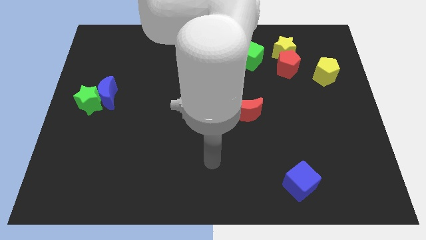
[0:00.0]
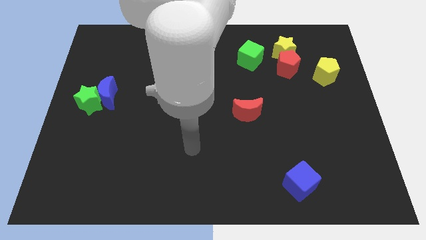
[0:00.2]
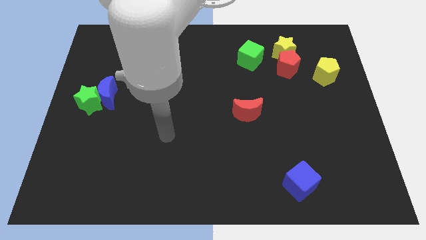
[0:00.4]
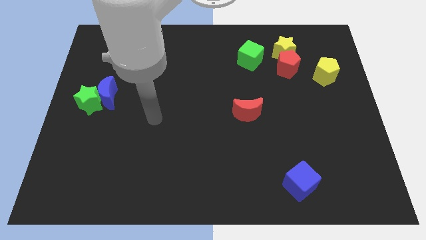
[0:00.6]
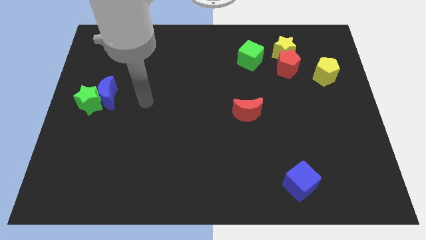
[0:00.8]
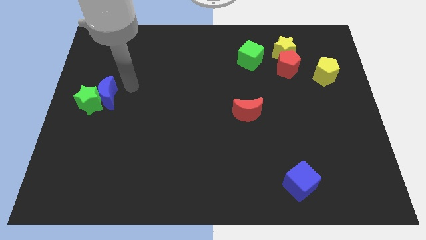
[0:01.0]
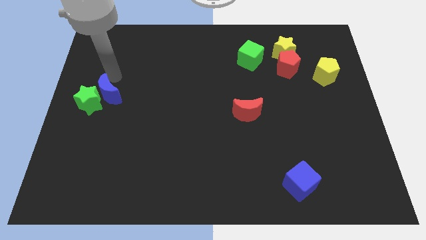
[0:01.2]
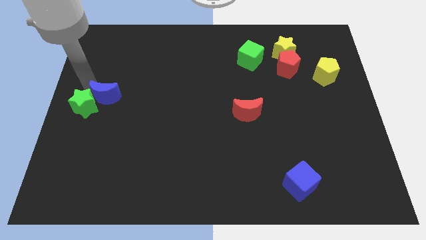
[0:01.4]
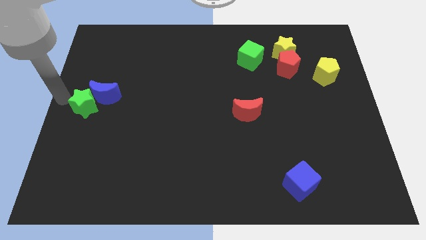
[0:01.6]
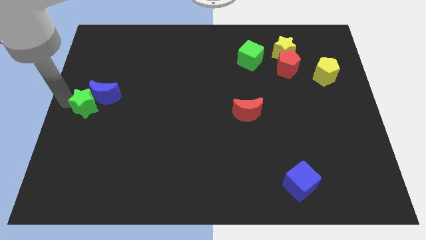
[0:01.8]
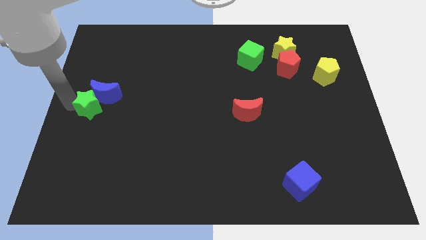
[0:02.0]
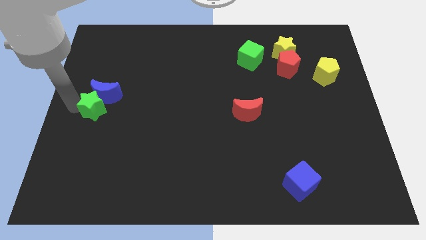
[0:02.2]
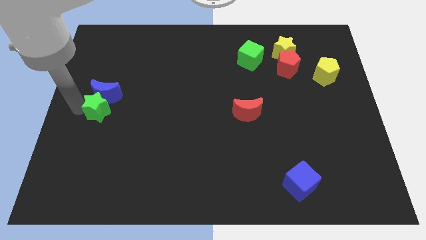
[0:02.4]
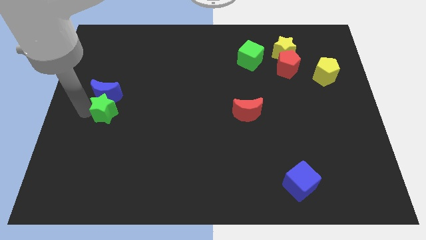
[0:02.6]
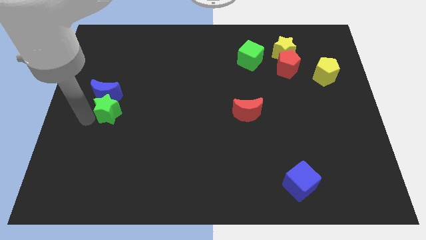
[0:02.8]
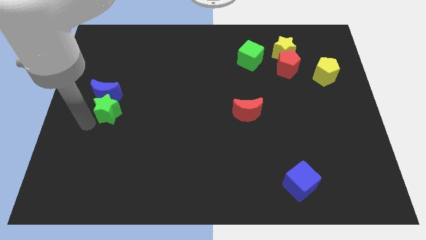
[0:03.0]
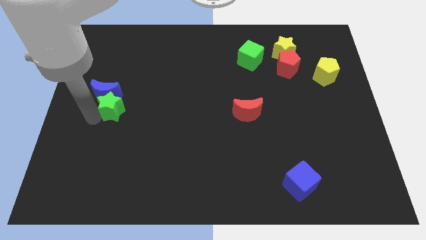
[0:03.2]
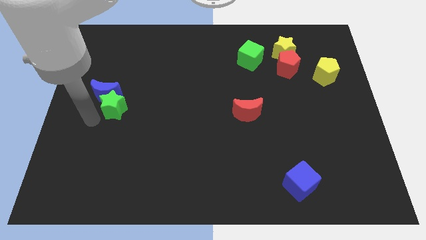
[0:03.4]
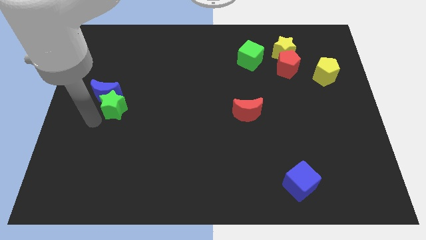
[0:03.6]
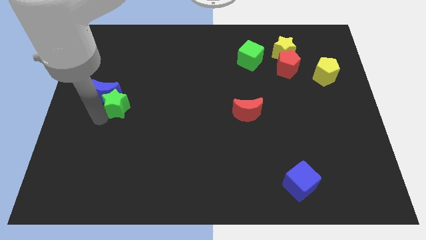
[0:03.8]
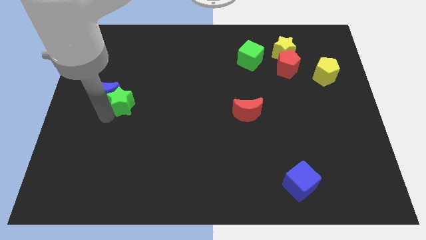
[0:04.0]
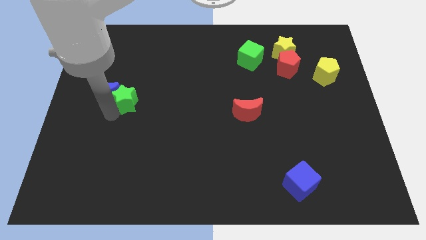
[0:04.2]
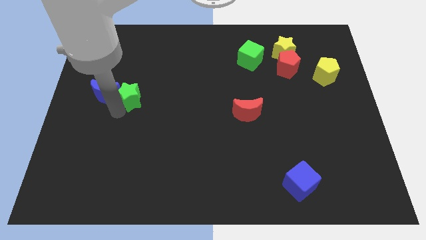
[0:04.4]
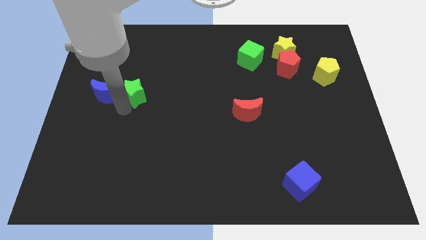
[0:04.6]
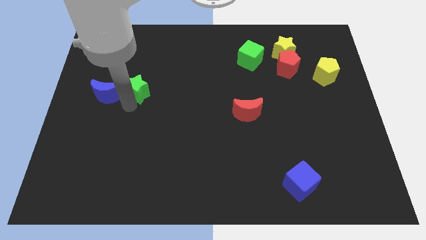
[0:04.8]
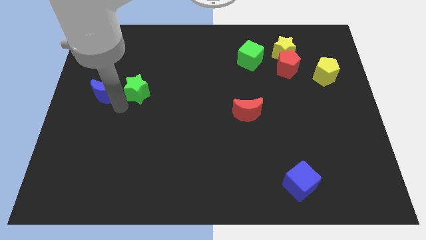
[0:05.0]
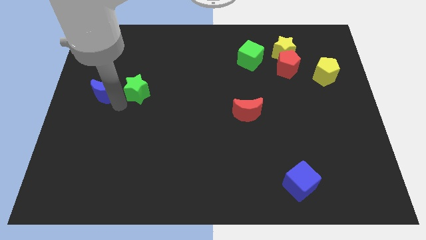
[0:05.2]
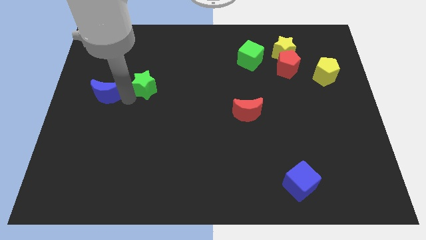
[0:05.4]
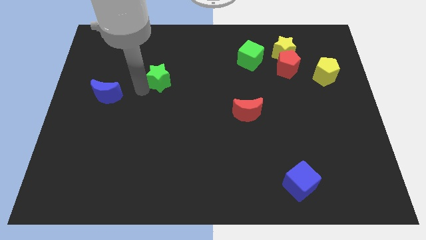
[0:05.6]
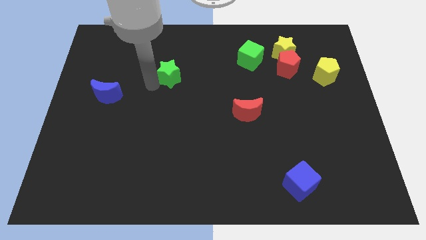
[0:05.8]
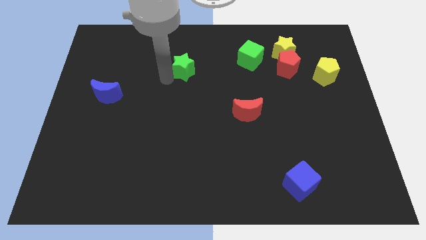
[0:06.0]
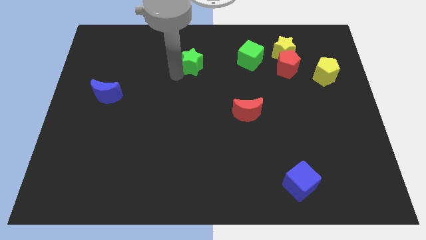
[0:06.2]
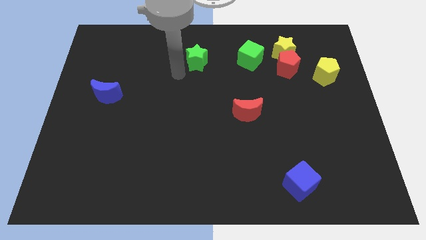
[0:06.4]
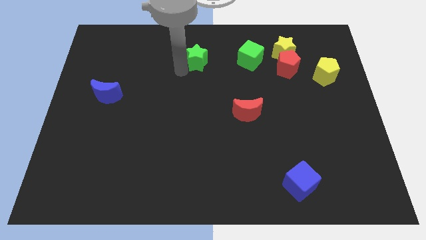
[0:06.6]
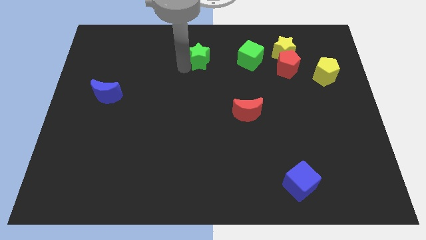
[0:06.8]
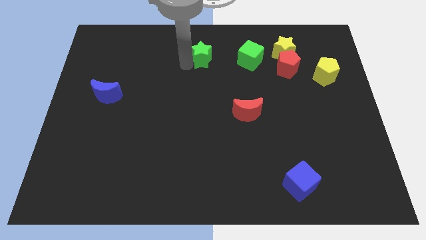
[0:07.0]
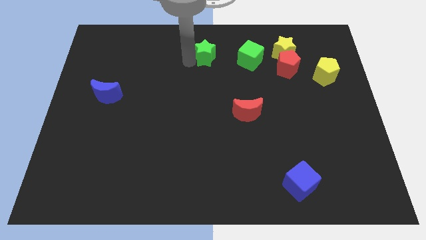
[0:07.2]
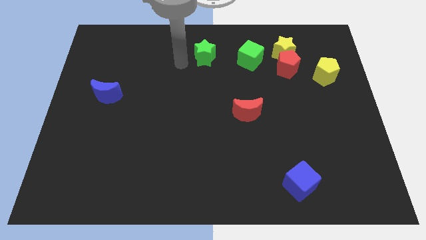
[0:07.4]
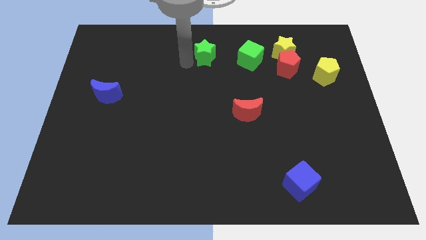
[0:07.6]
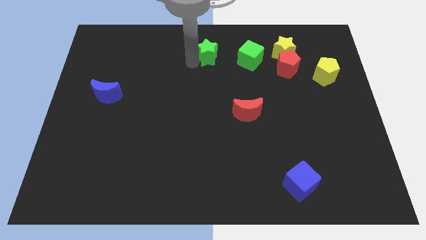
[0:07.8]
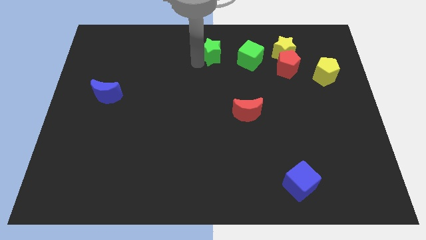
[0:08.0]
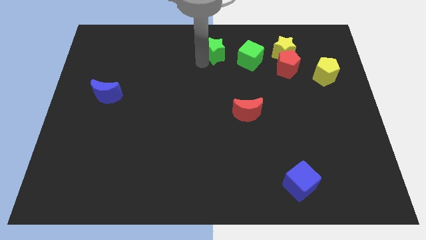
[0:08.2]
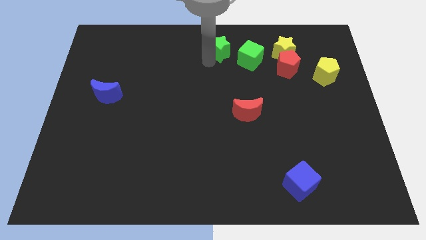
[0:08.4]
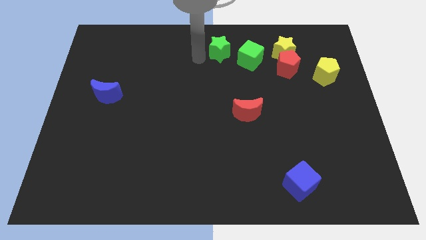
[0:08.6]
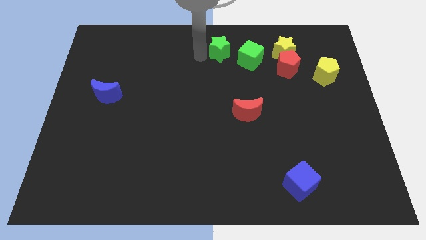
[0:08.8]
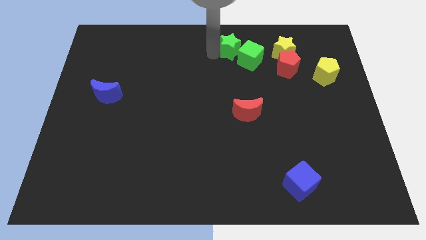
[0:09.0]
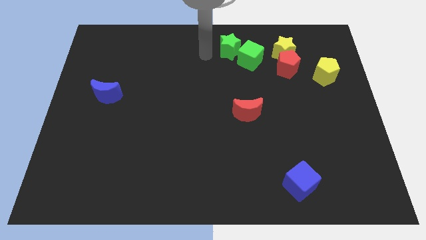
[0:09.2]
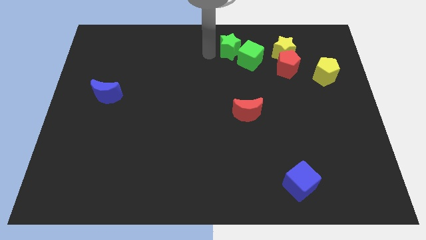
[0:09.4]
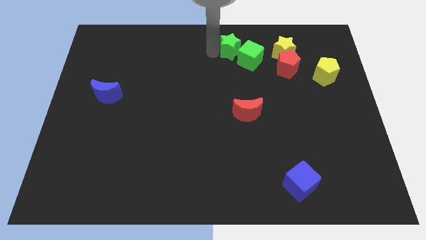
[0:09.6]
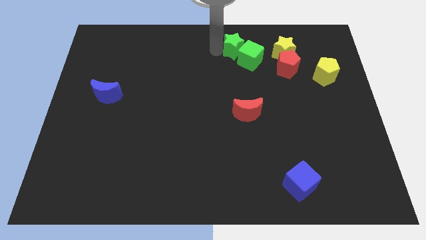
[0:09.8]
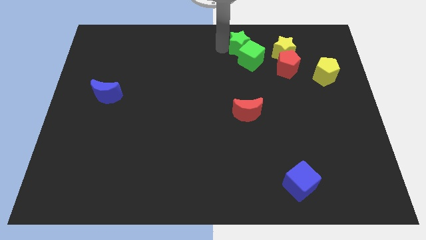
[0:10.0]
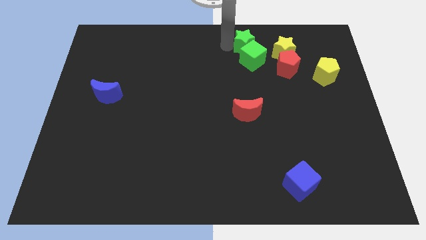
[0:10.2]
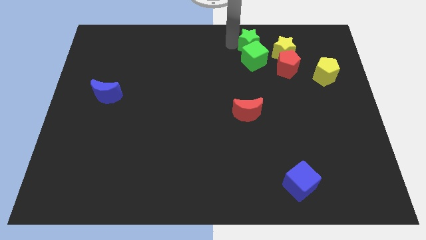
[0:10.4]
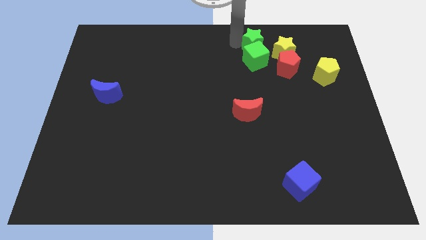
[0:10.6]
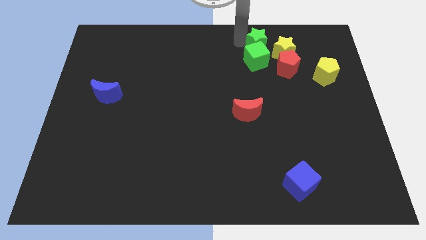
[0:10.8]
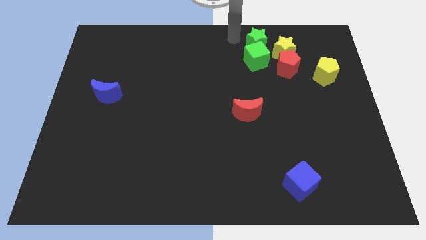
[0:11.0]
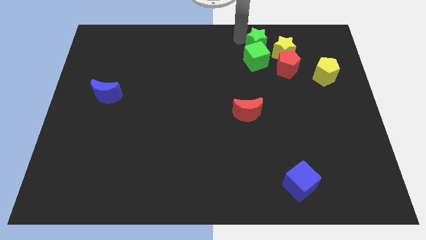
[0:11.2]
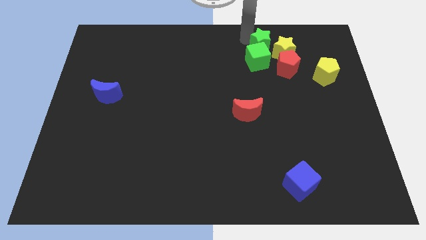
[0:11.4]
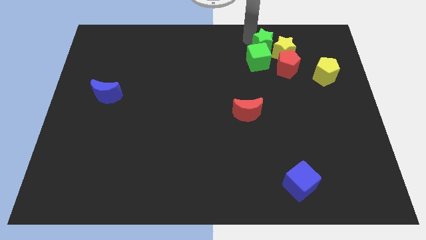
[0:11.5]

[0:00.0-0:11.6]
move the green star close to the yellow star

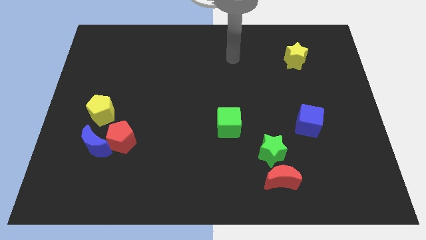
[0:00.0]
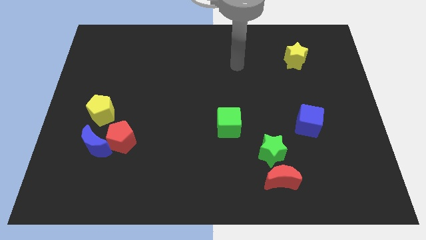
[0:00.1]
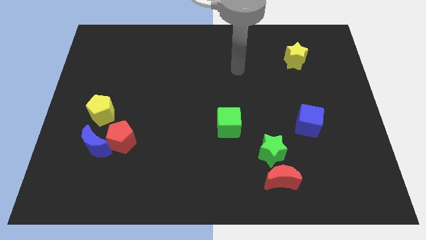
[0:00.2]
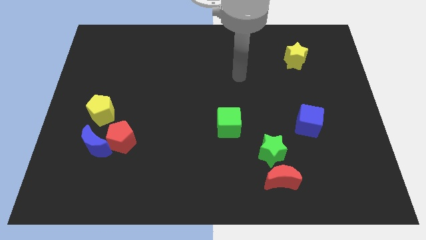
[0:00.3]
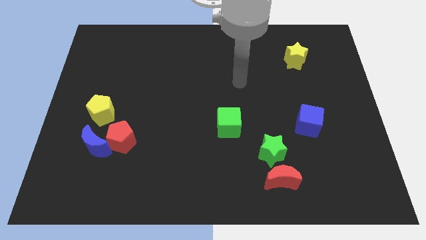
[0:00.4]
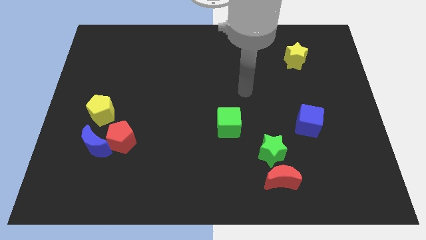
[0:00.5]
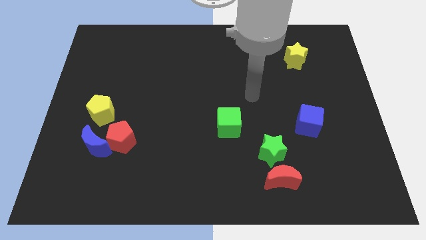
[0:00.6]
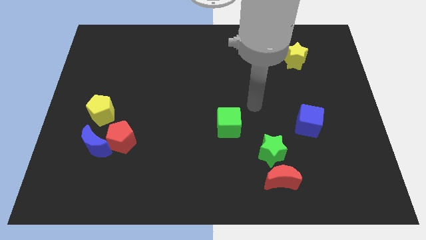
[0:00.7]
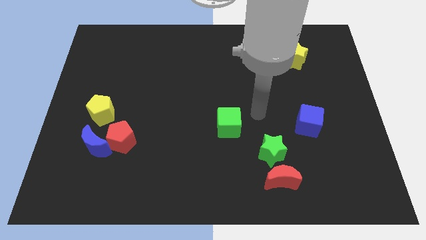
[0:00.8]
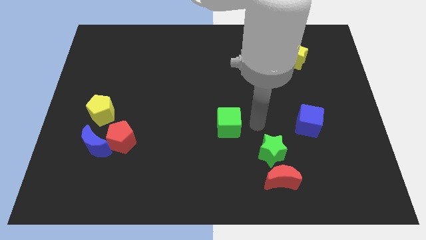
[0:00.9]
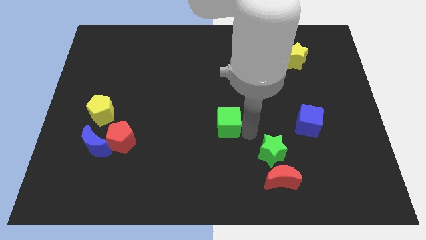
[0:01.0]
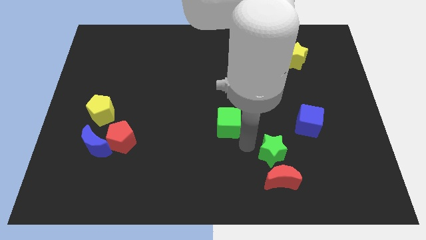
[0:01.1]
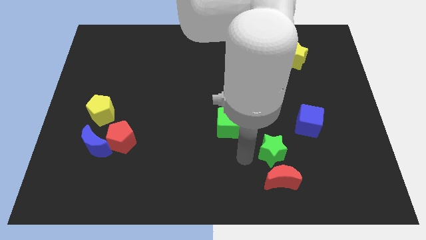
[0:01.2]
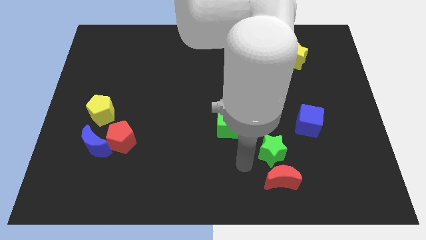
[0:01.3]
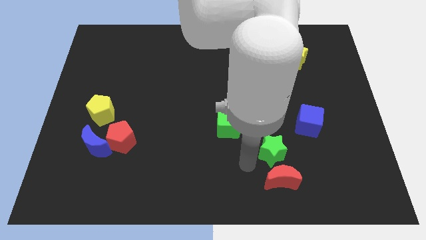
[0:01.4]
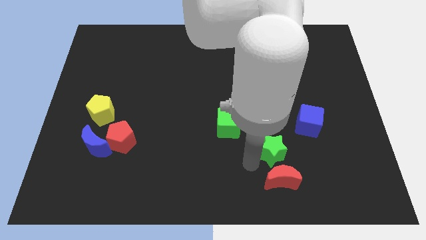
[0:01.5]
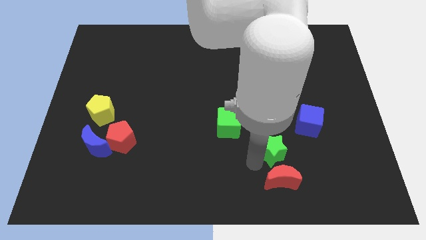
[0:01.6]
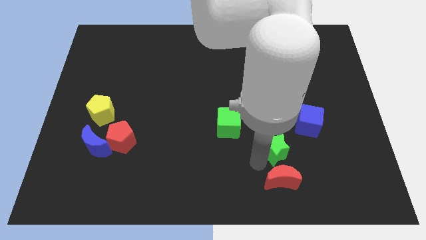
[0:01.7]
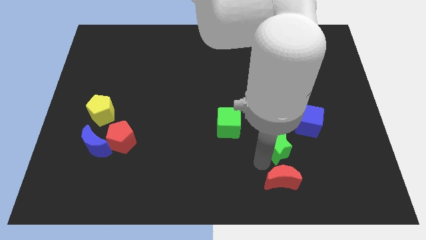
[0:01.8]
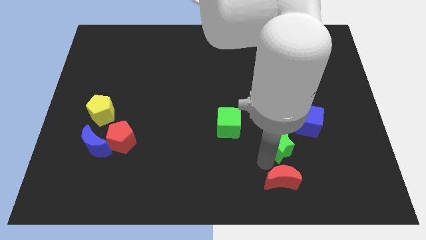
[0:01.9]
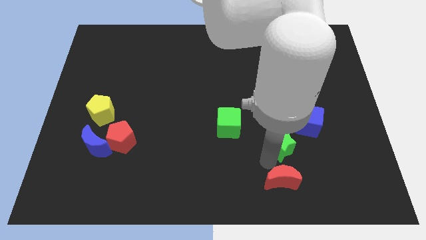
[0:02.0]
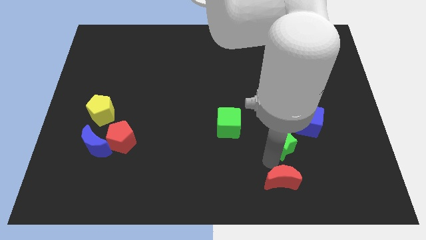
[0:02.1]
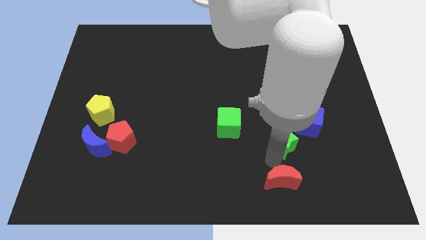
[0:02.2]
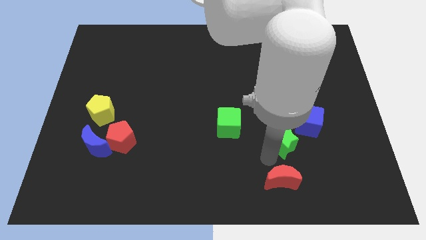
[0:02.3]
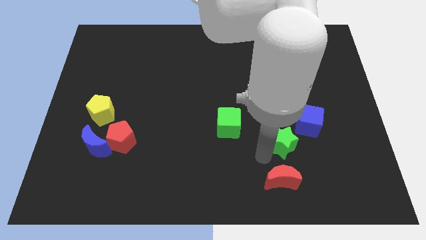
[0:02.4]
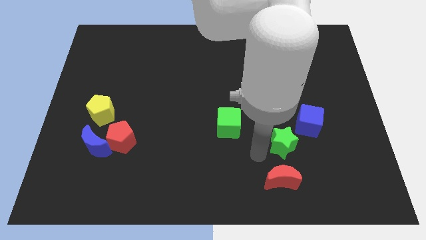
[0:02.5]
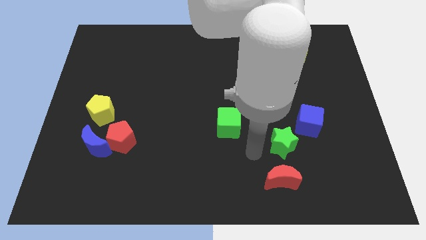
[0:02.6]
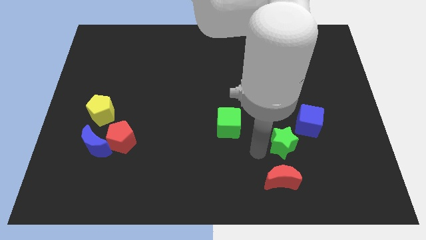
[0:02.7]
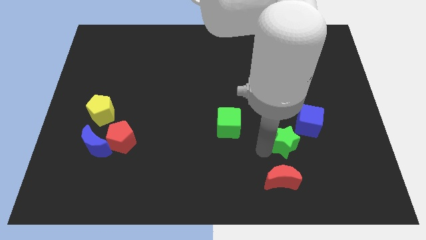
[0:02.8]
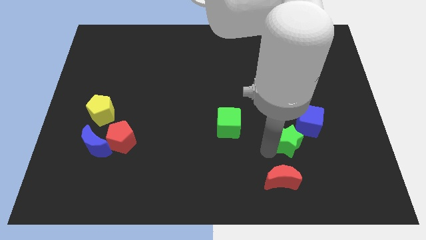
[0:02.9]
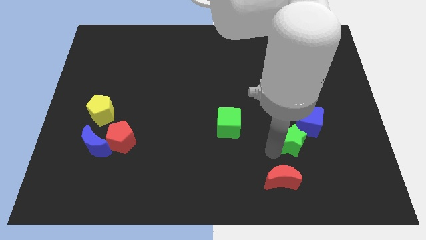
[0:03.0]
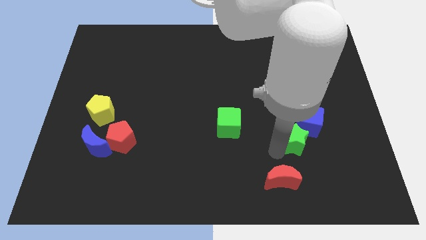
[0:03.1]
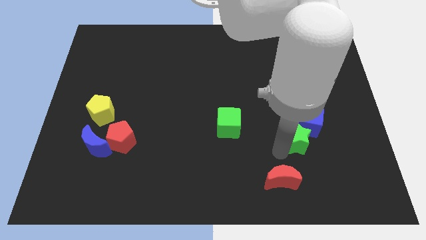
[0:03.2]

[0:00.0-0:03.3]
put the green star towards the blue cube
